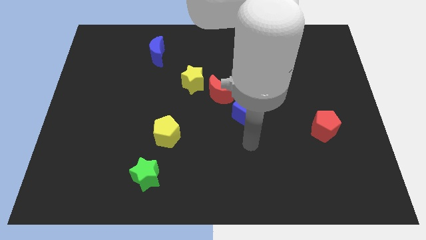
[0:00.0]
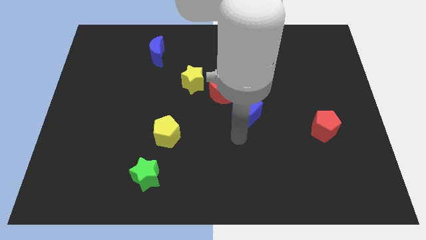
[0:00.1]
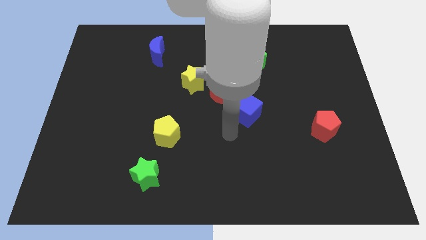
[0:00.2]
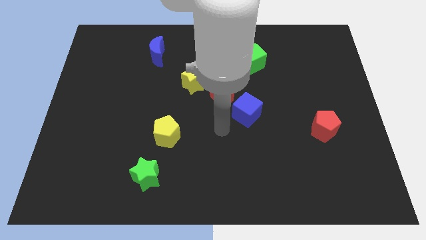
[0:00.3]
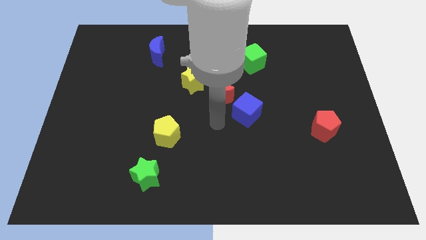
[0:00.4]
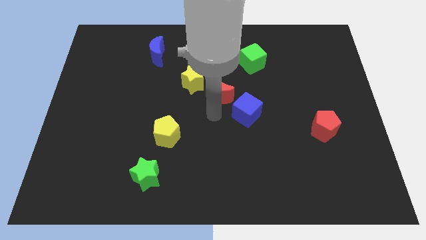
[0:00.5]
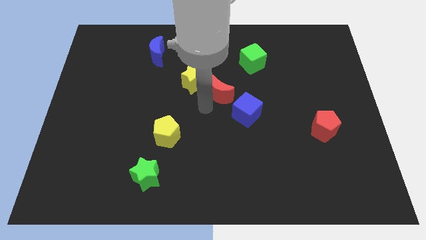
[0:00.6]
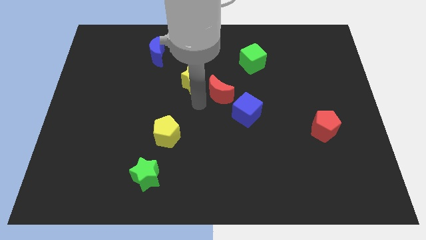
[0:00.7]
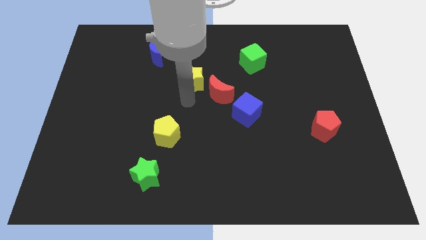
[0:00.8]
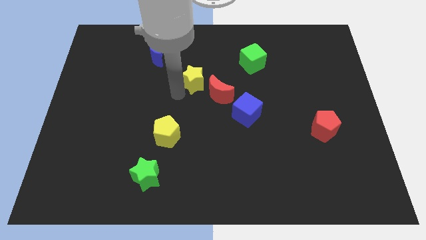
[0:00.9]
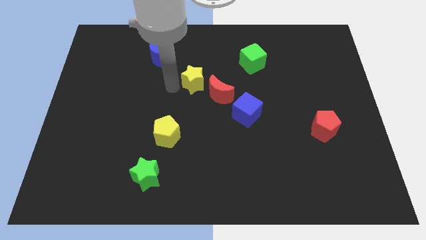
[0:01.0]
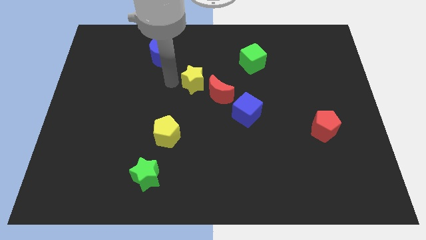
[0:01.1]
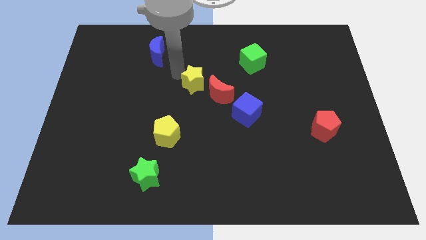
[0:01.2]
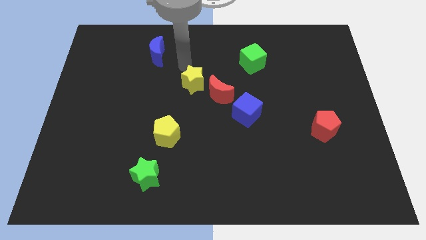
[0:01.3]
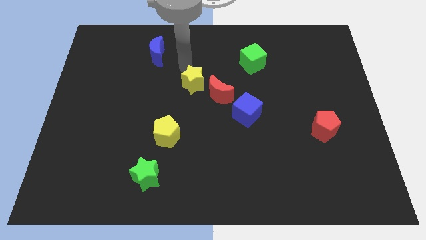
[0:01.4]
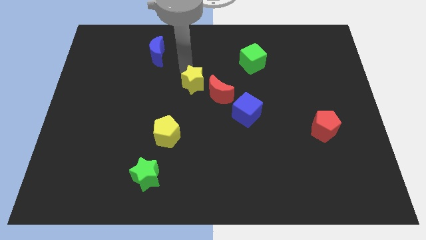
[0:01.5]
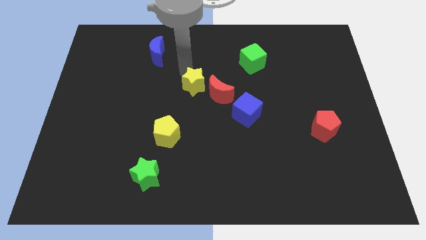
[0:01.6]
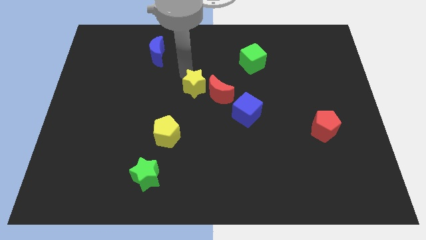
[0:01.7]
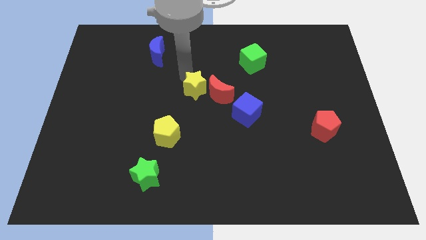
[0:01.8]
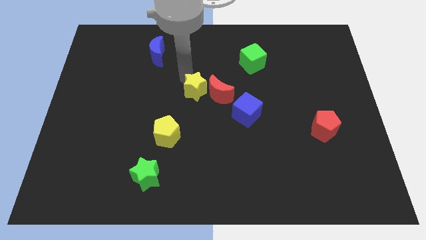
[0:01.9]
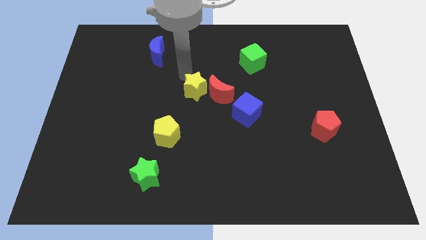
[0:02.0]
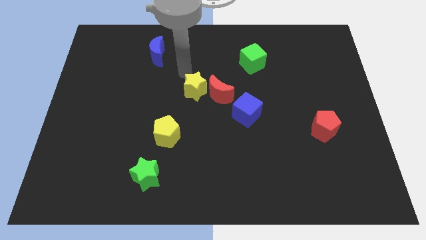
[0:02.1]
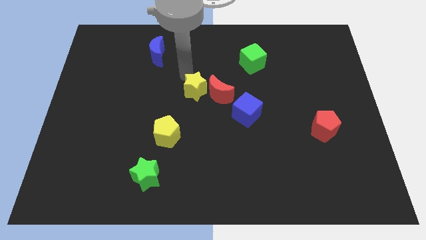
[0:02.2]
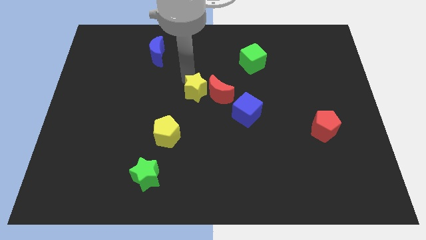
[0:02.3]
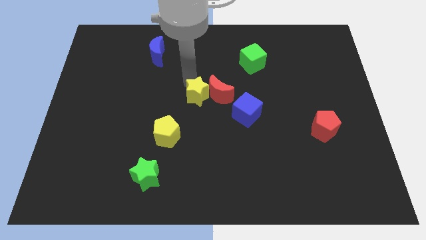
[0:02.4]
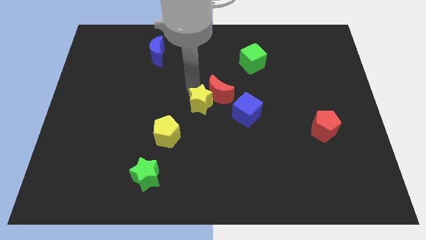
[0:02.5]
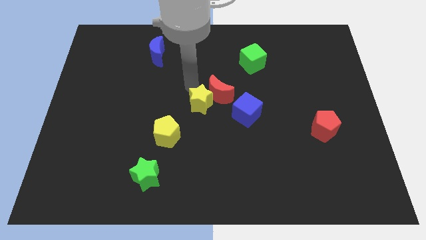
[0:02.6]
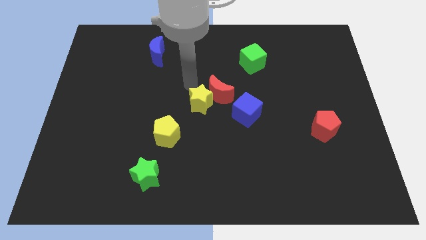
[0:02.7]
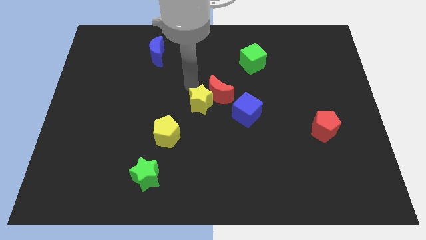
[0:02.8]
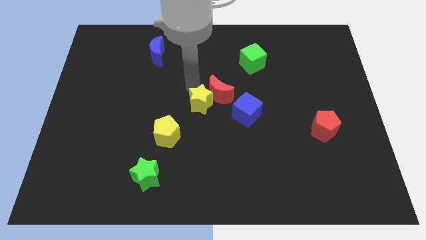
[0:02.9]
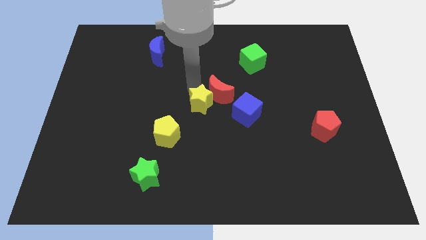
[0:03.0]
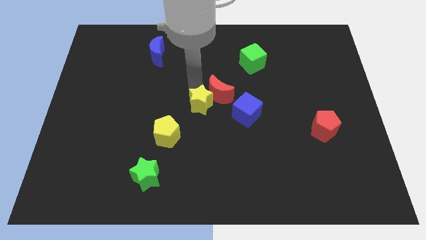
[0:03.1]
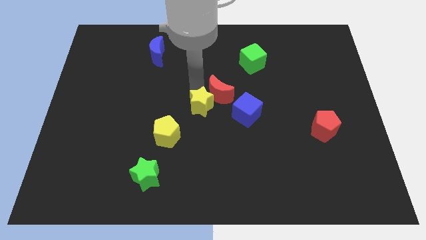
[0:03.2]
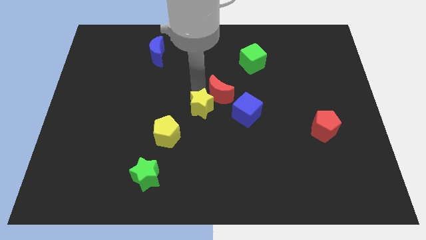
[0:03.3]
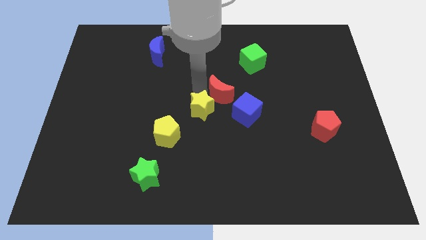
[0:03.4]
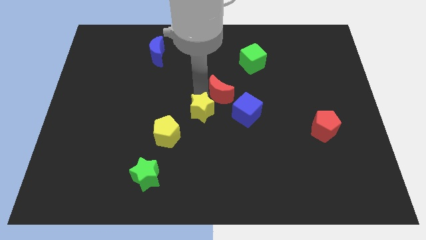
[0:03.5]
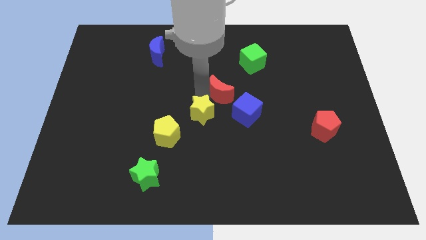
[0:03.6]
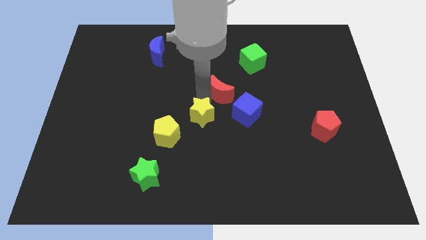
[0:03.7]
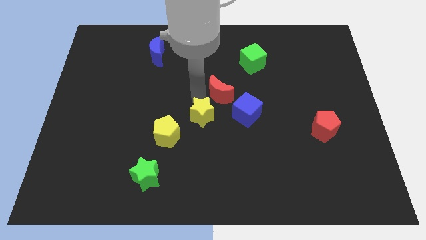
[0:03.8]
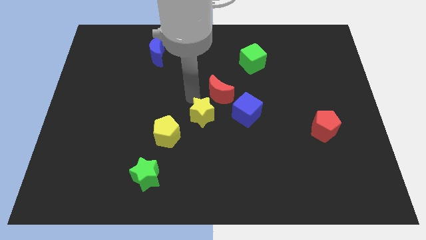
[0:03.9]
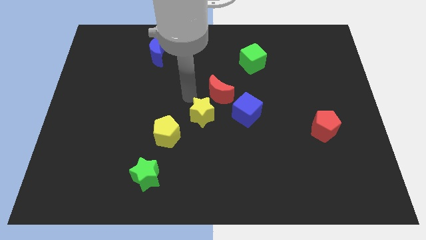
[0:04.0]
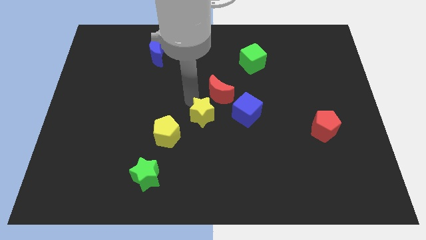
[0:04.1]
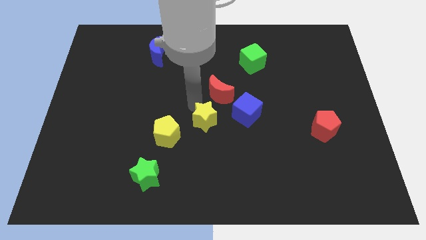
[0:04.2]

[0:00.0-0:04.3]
put the yellow star right of the yellow pentagon

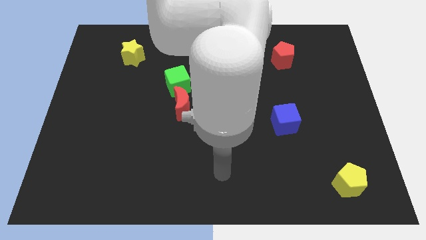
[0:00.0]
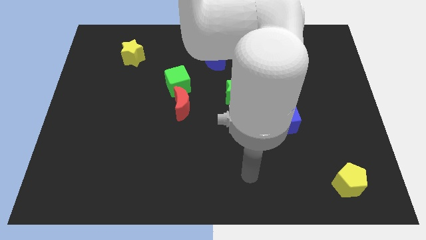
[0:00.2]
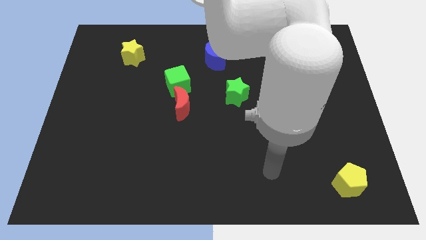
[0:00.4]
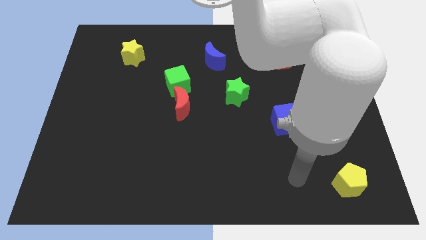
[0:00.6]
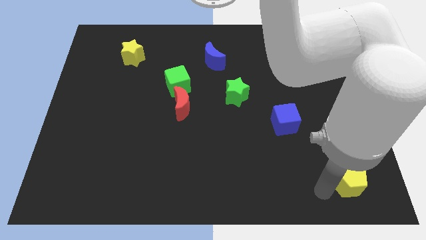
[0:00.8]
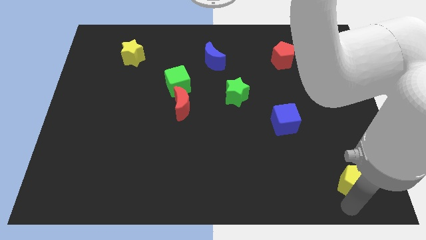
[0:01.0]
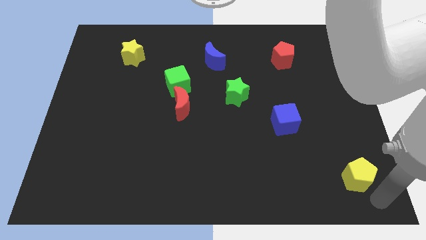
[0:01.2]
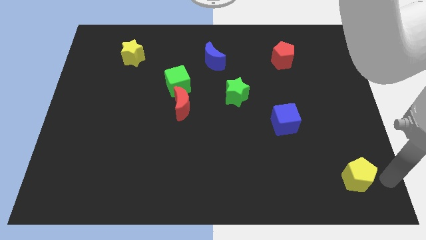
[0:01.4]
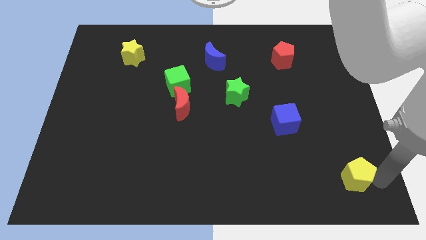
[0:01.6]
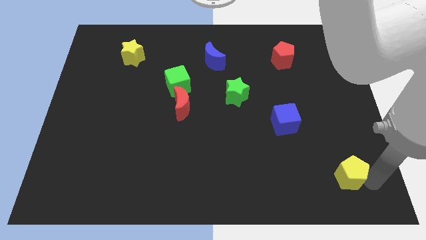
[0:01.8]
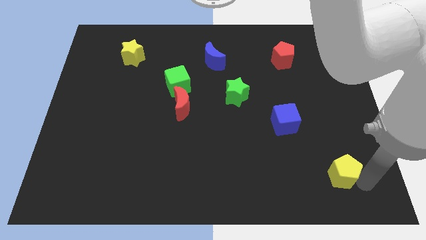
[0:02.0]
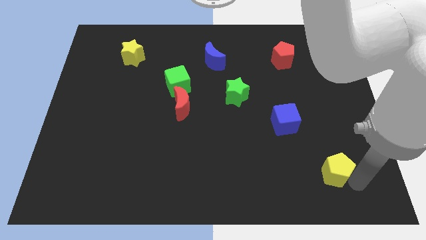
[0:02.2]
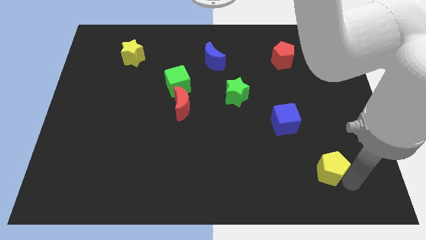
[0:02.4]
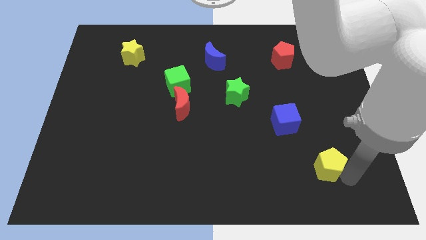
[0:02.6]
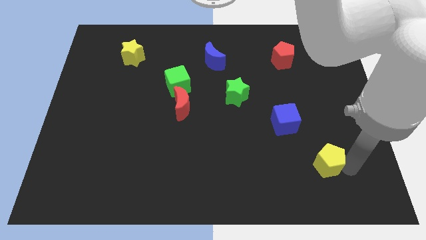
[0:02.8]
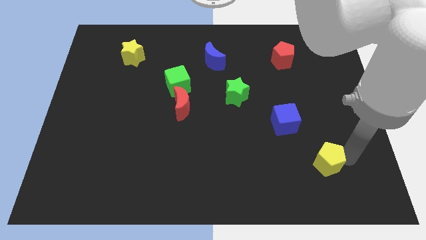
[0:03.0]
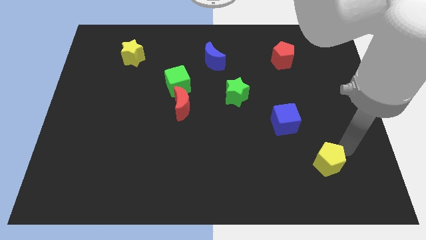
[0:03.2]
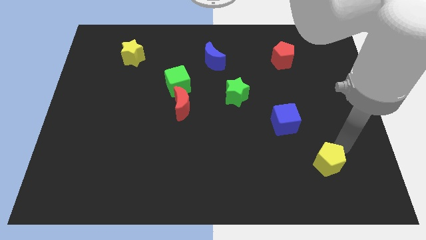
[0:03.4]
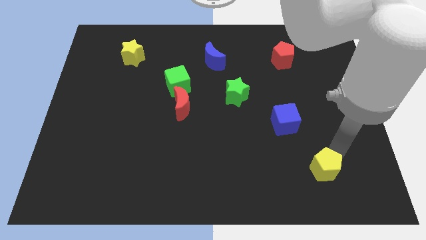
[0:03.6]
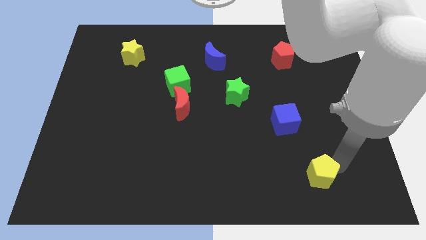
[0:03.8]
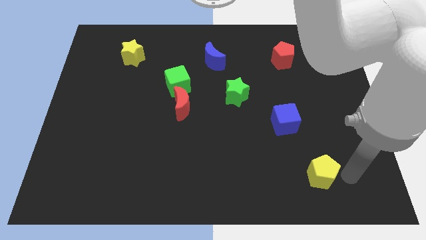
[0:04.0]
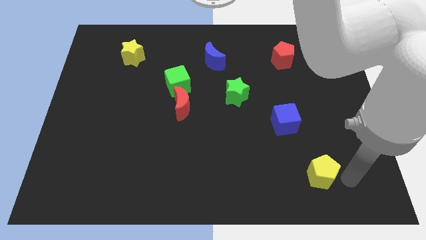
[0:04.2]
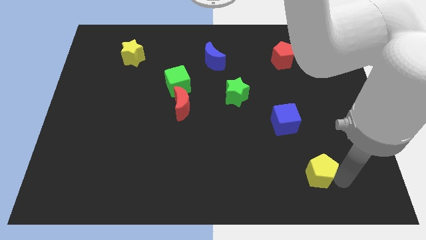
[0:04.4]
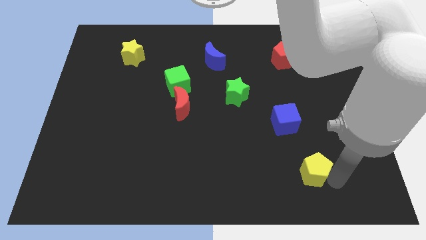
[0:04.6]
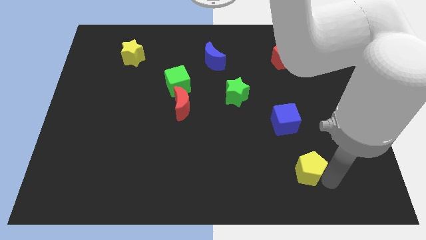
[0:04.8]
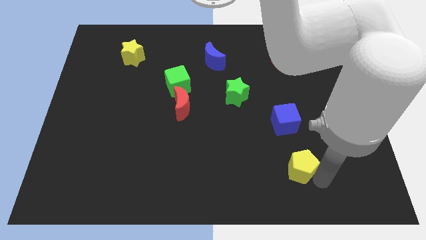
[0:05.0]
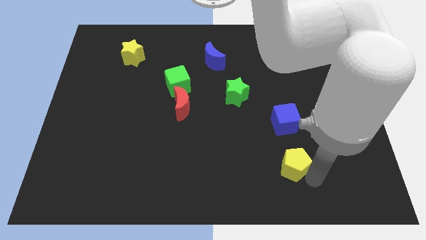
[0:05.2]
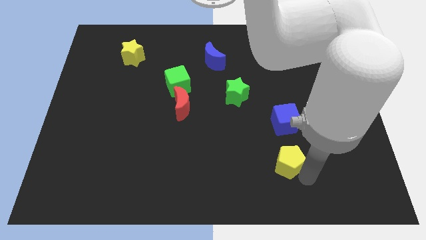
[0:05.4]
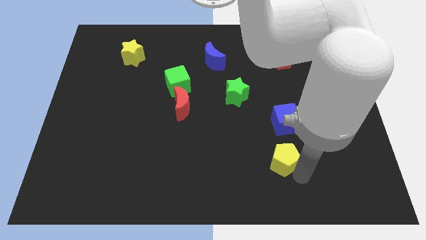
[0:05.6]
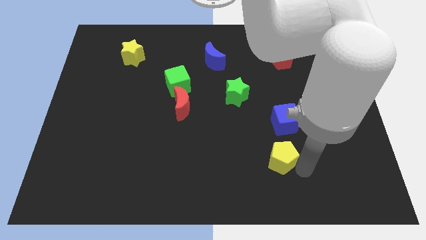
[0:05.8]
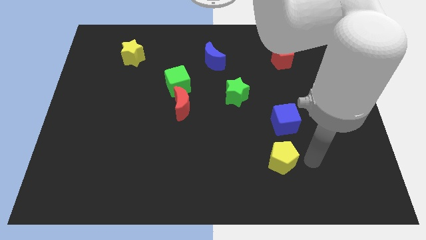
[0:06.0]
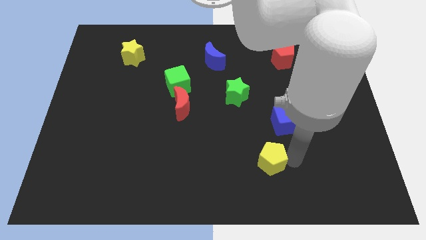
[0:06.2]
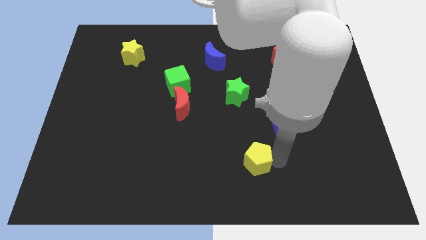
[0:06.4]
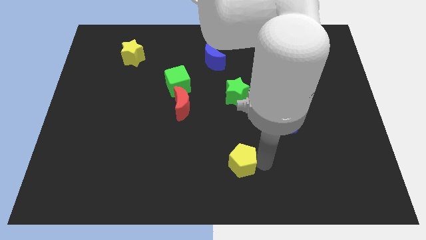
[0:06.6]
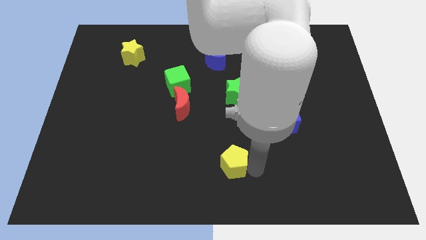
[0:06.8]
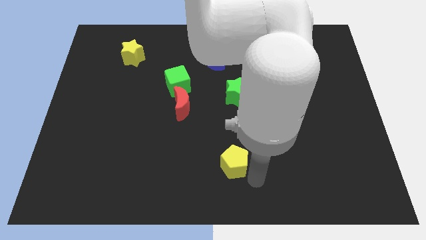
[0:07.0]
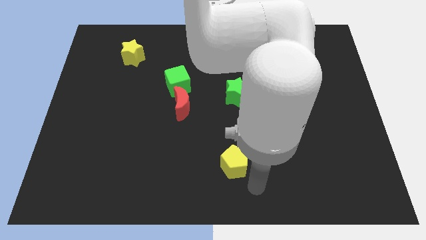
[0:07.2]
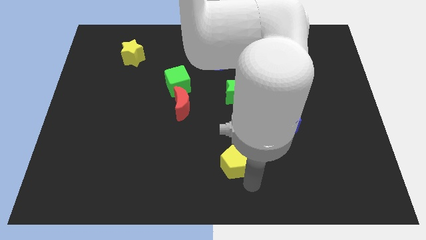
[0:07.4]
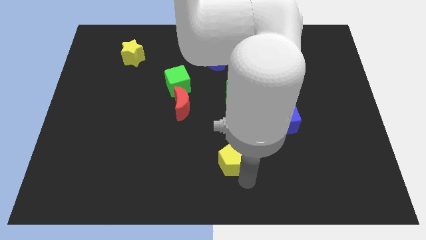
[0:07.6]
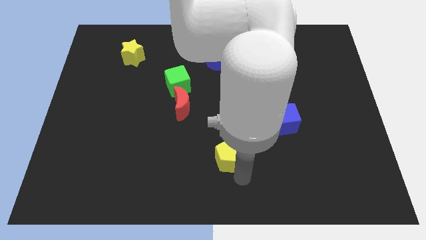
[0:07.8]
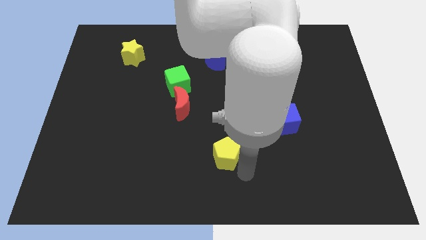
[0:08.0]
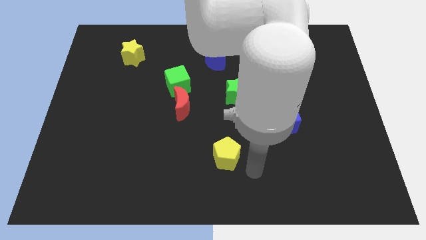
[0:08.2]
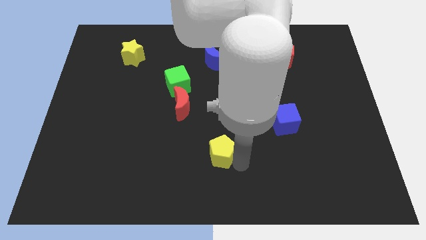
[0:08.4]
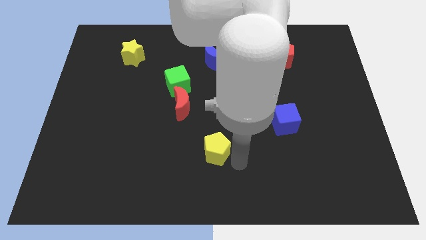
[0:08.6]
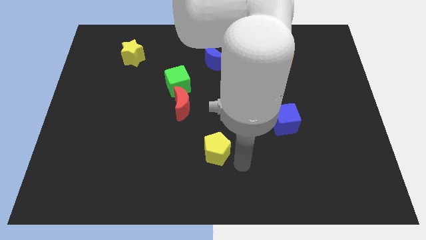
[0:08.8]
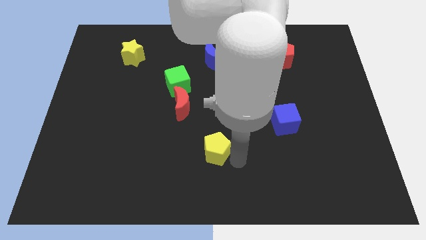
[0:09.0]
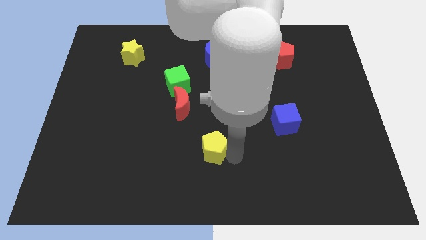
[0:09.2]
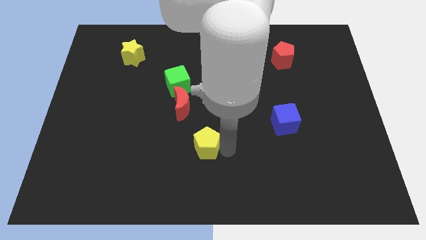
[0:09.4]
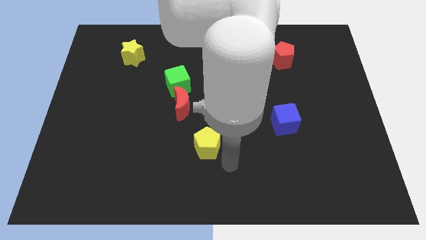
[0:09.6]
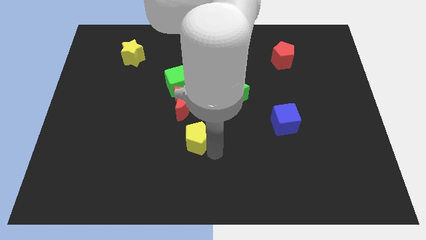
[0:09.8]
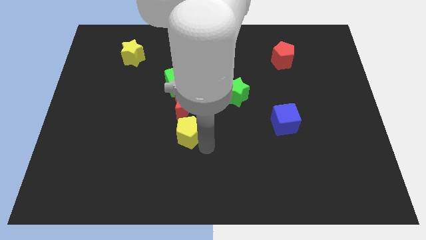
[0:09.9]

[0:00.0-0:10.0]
push the yellow pentagon to the bottom side of the green cube
